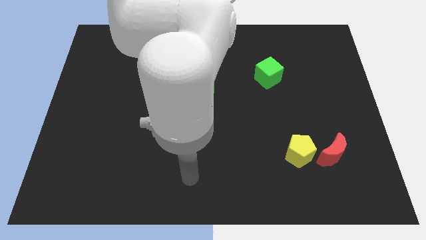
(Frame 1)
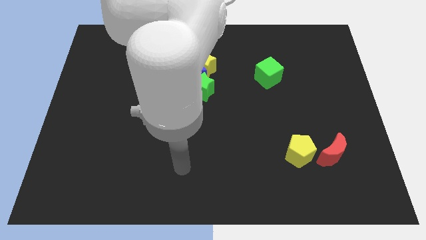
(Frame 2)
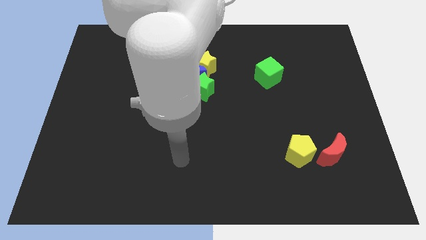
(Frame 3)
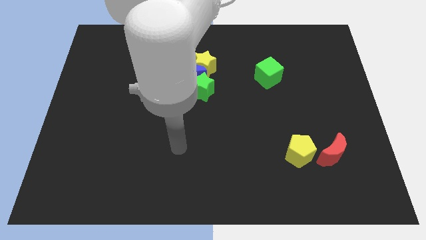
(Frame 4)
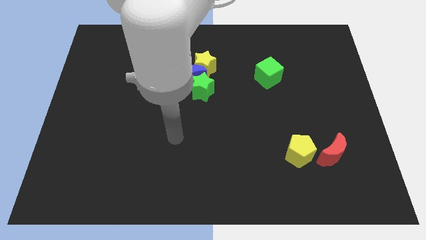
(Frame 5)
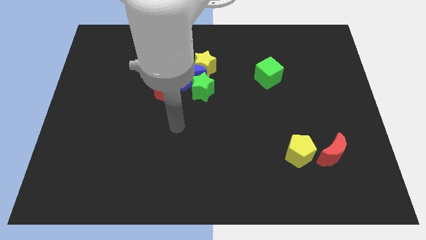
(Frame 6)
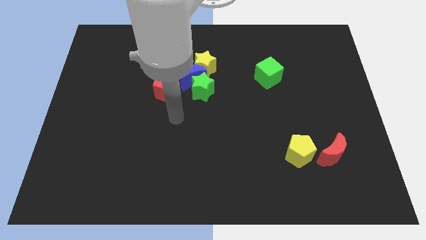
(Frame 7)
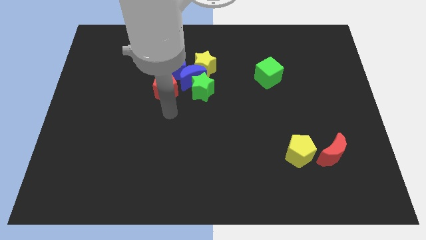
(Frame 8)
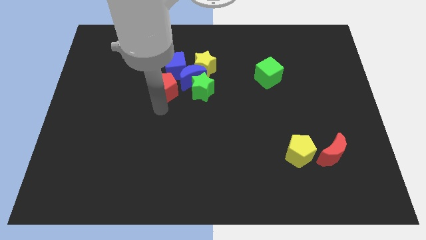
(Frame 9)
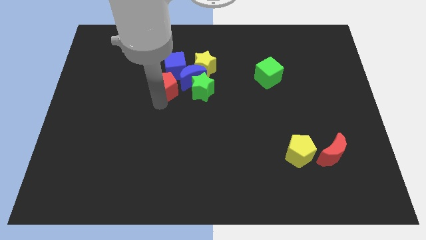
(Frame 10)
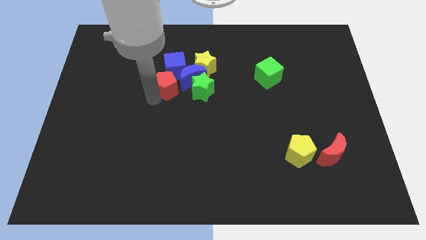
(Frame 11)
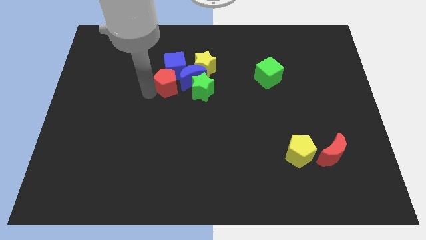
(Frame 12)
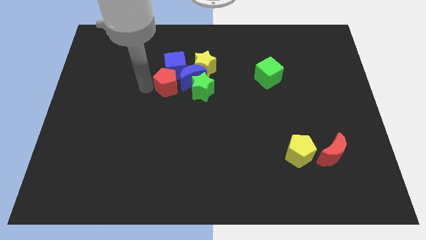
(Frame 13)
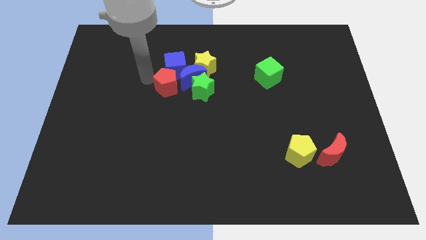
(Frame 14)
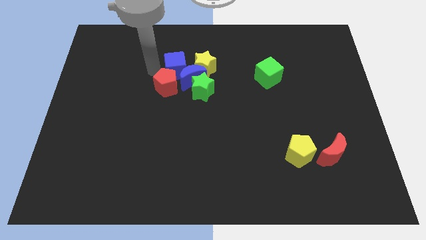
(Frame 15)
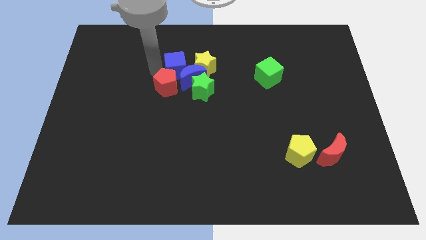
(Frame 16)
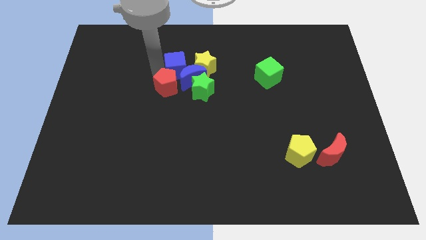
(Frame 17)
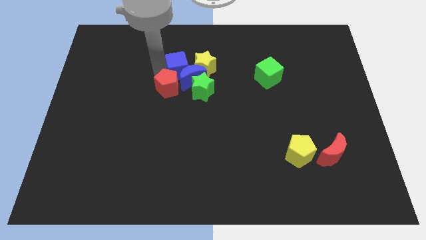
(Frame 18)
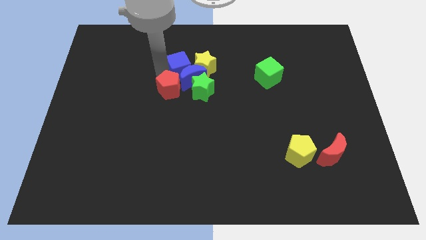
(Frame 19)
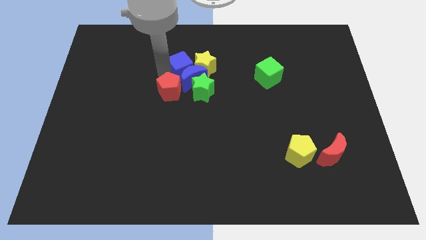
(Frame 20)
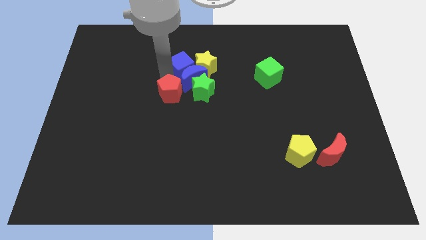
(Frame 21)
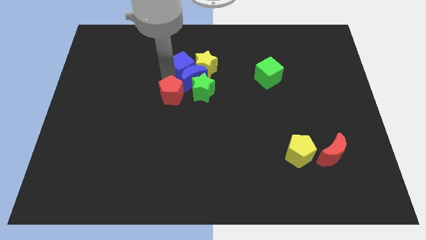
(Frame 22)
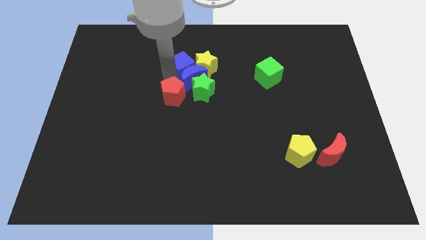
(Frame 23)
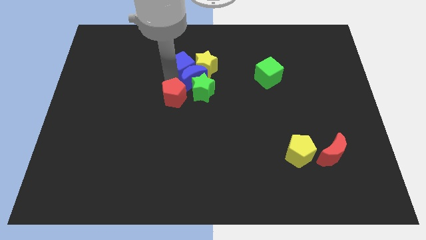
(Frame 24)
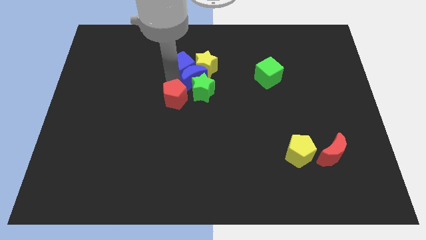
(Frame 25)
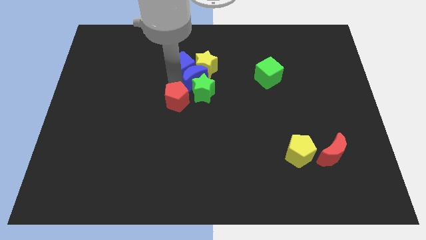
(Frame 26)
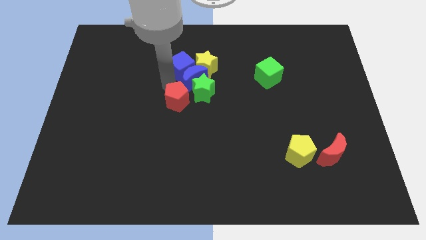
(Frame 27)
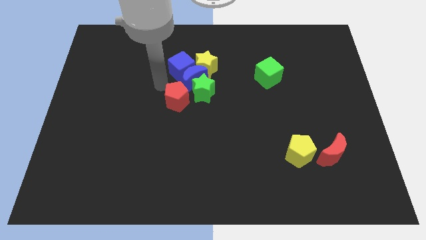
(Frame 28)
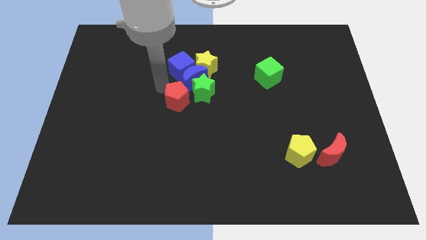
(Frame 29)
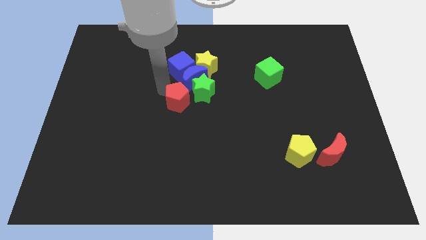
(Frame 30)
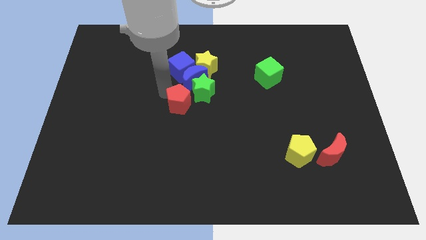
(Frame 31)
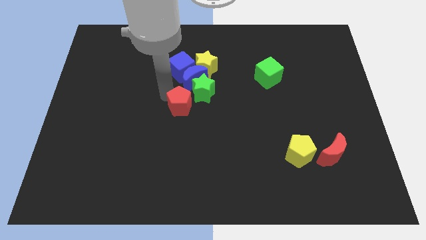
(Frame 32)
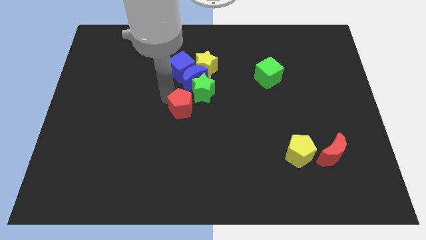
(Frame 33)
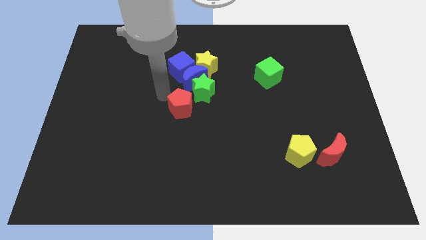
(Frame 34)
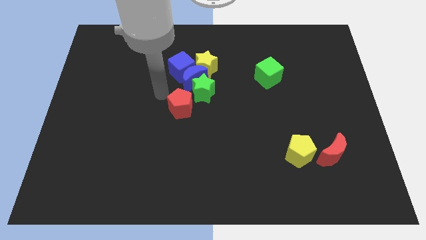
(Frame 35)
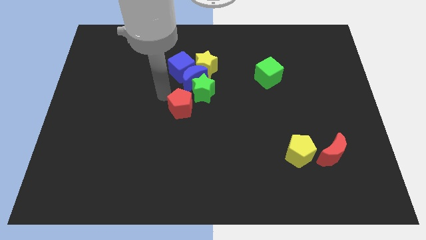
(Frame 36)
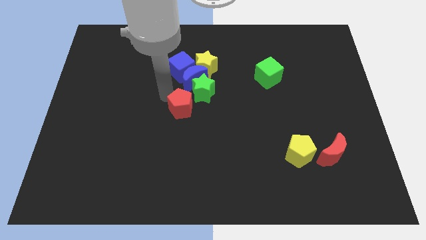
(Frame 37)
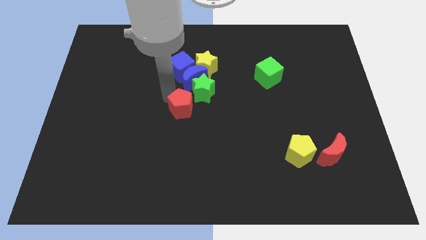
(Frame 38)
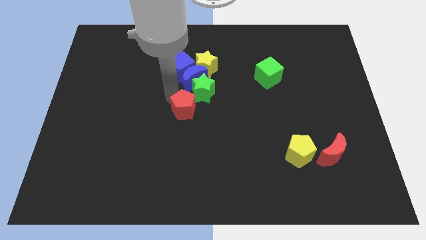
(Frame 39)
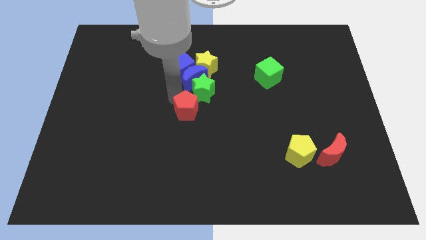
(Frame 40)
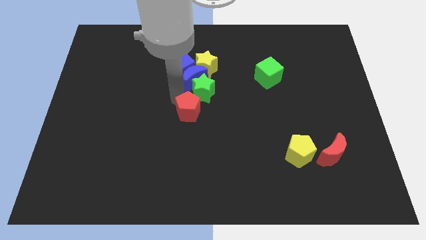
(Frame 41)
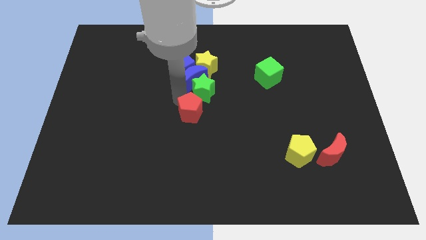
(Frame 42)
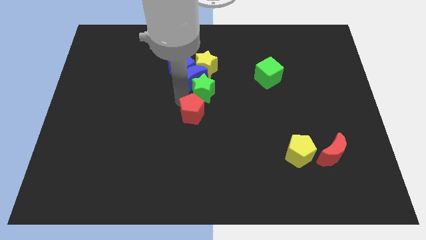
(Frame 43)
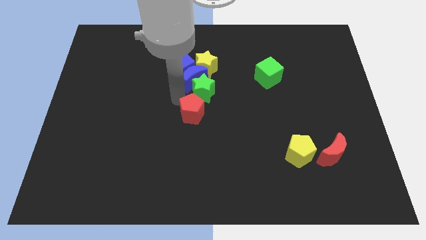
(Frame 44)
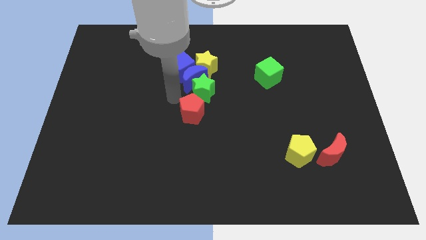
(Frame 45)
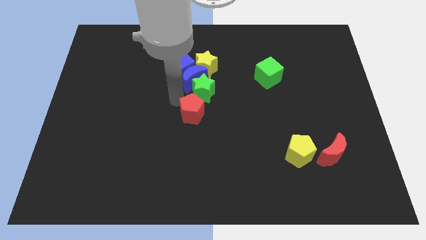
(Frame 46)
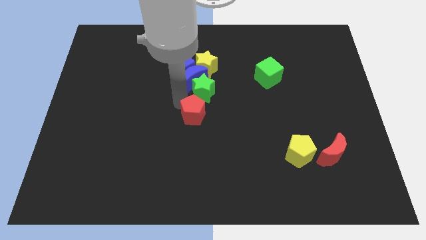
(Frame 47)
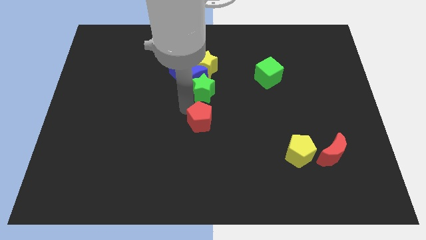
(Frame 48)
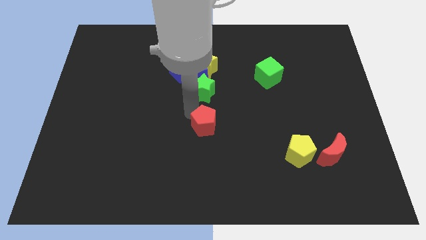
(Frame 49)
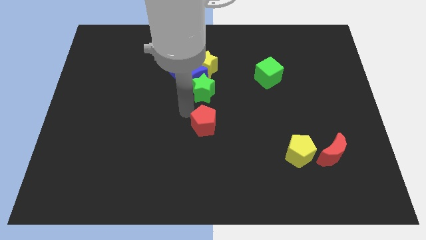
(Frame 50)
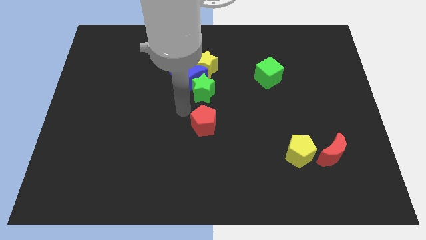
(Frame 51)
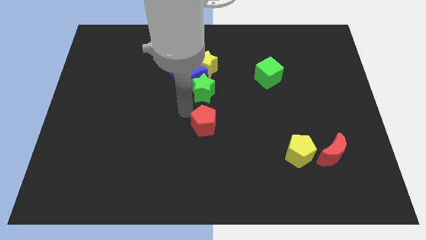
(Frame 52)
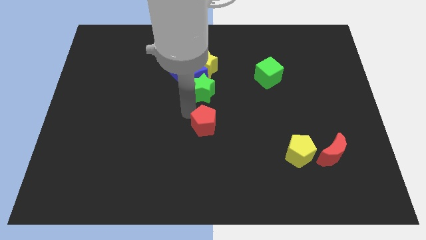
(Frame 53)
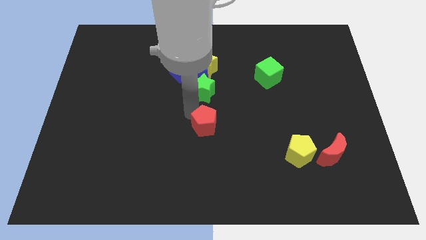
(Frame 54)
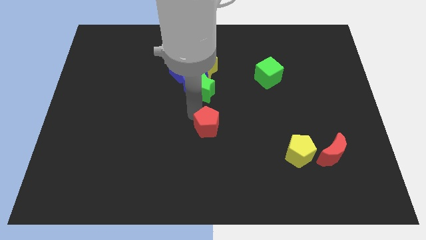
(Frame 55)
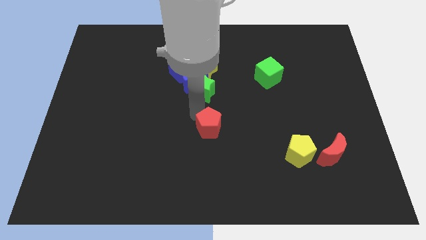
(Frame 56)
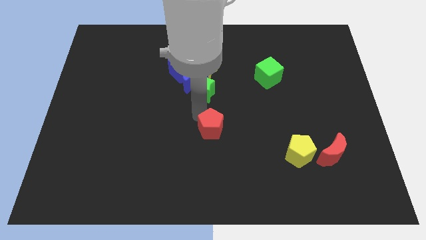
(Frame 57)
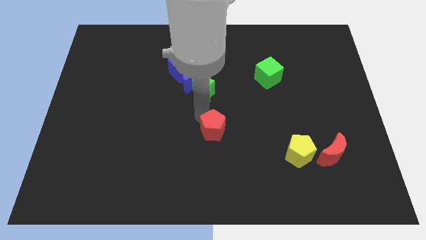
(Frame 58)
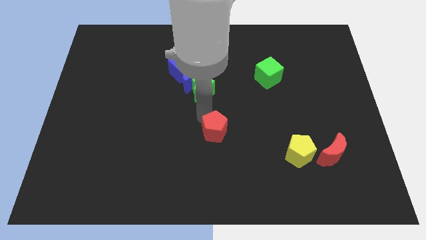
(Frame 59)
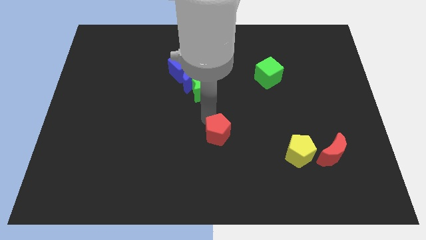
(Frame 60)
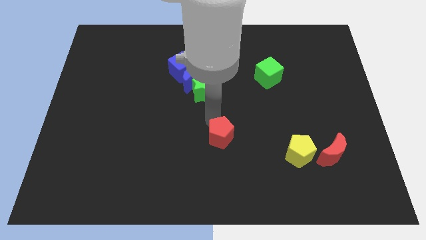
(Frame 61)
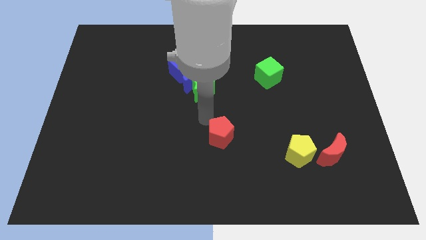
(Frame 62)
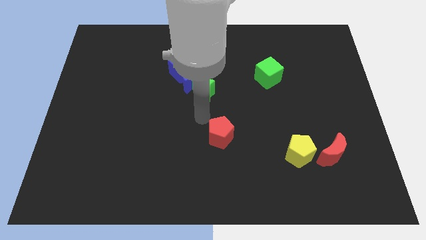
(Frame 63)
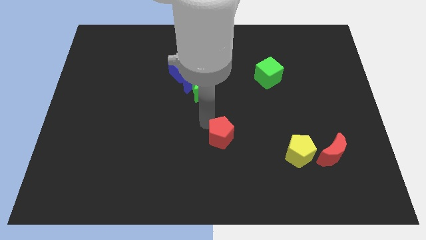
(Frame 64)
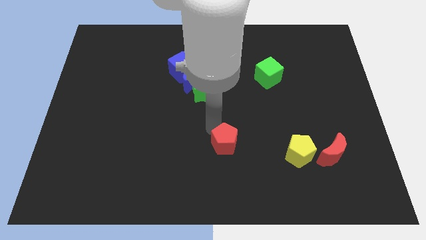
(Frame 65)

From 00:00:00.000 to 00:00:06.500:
slide the red pentagon downwards and to the right

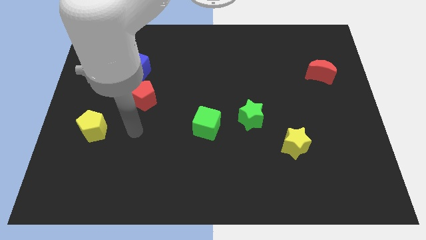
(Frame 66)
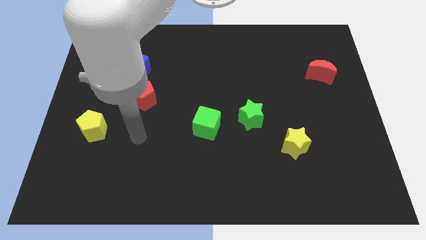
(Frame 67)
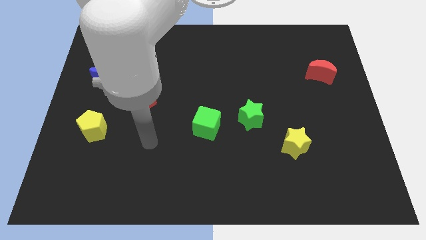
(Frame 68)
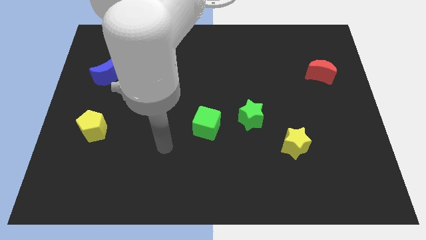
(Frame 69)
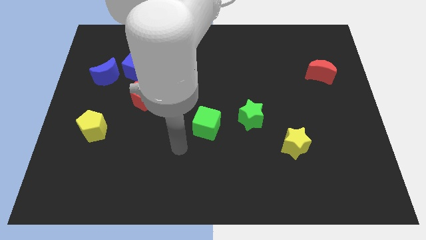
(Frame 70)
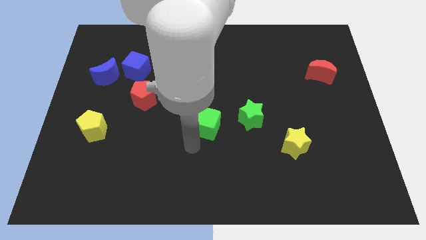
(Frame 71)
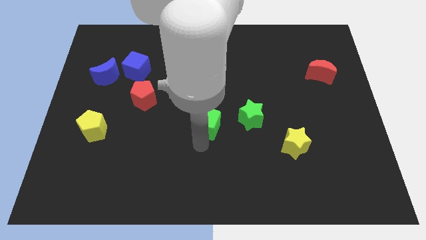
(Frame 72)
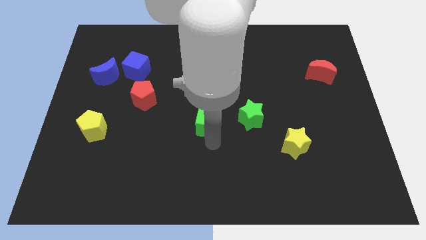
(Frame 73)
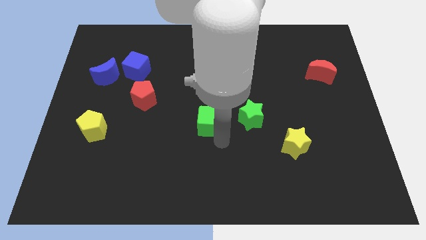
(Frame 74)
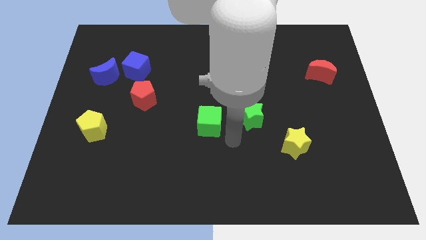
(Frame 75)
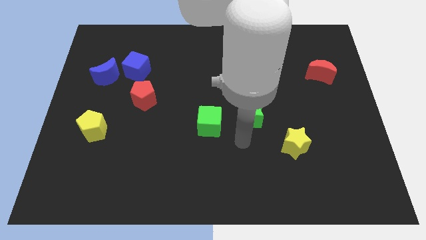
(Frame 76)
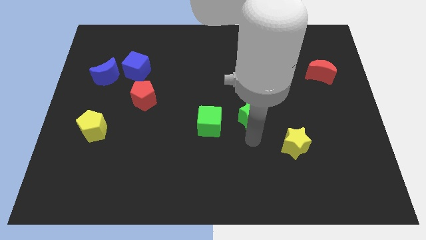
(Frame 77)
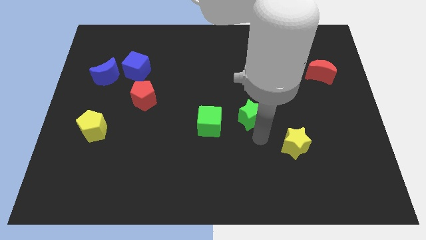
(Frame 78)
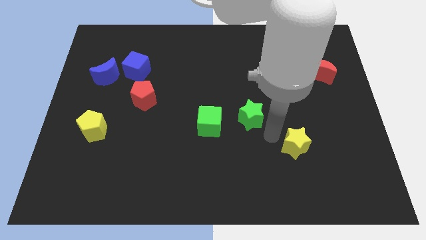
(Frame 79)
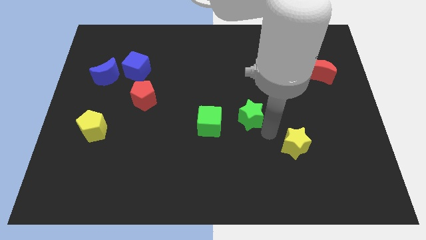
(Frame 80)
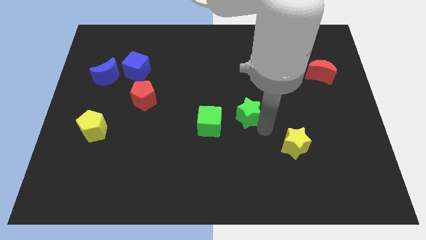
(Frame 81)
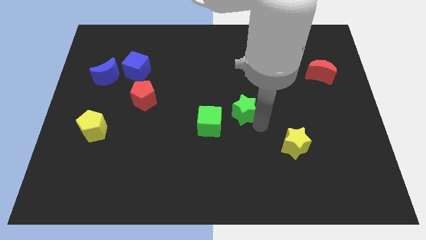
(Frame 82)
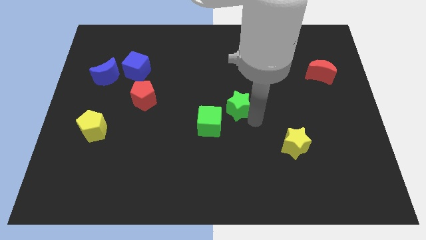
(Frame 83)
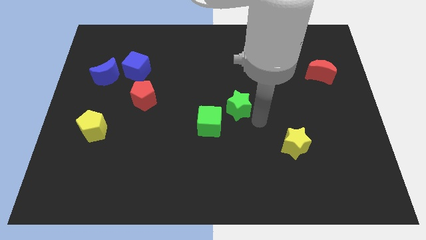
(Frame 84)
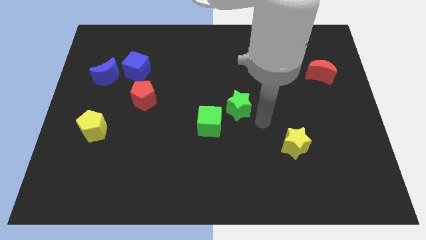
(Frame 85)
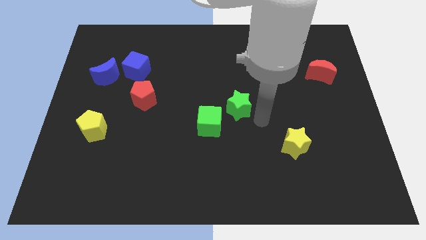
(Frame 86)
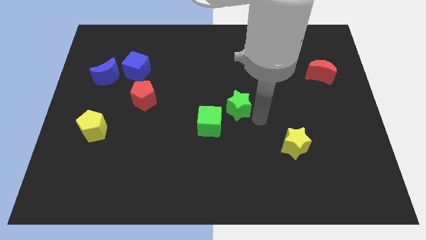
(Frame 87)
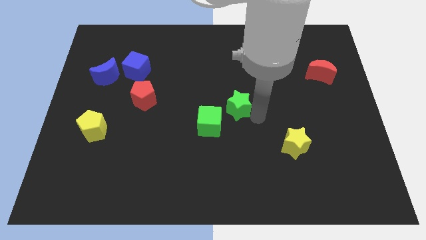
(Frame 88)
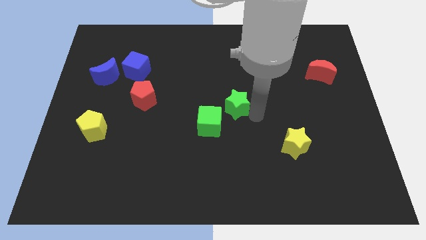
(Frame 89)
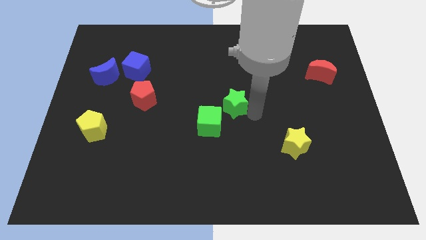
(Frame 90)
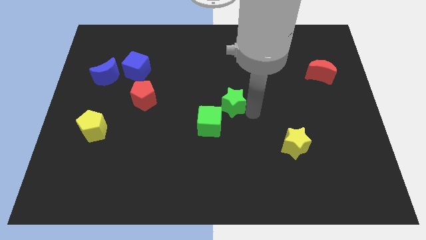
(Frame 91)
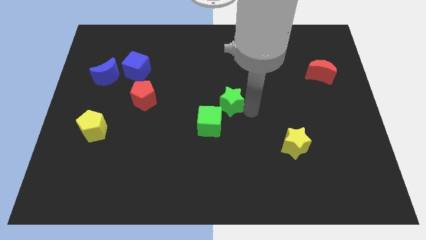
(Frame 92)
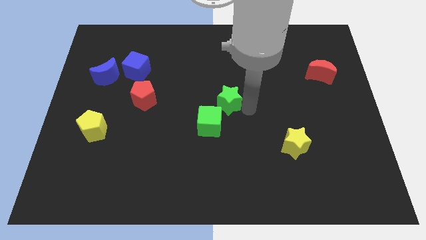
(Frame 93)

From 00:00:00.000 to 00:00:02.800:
push the green star diagonally upwards and to the left a little
